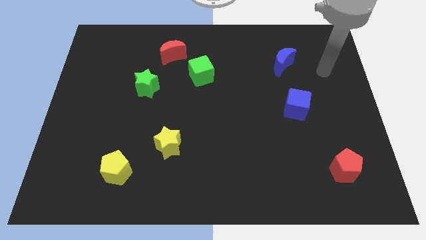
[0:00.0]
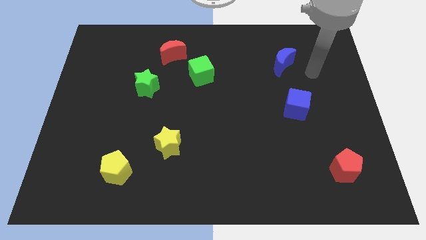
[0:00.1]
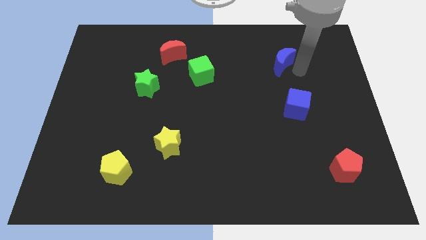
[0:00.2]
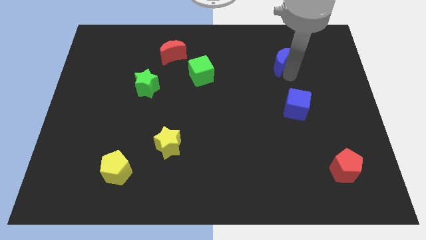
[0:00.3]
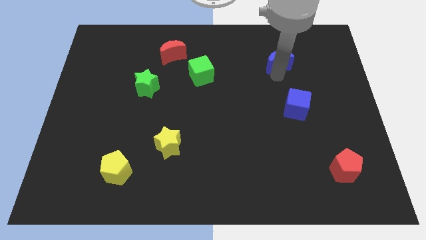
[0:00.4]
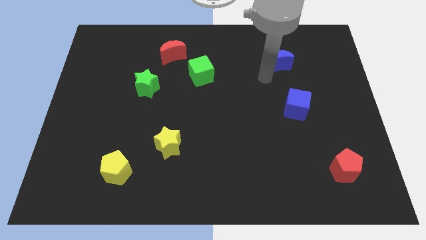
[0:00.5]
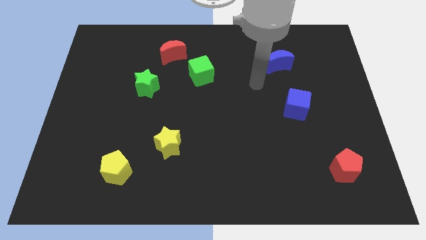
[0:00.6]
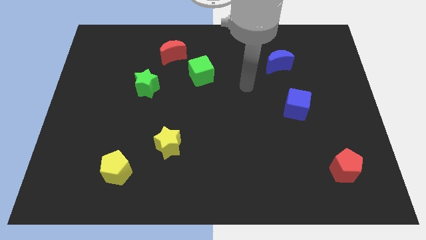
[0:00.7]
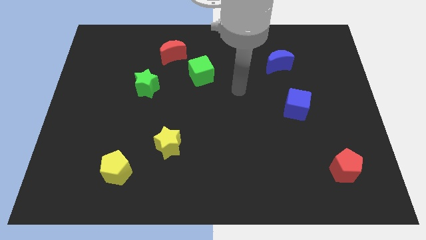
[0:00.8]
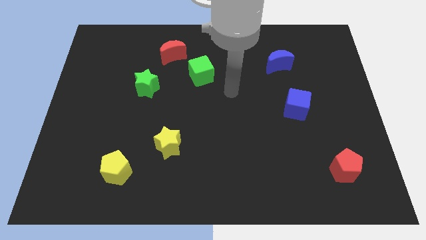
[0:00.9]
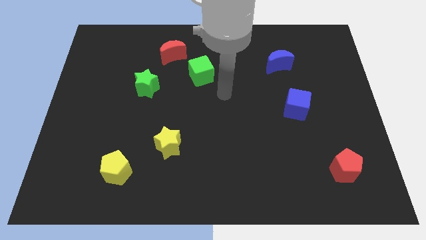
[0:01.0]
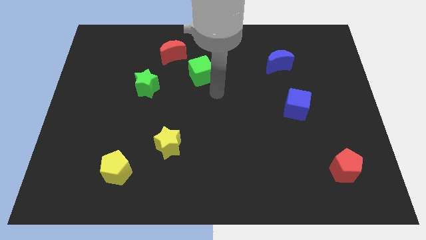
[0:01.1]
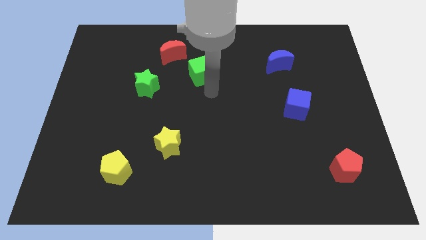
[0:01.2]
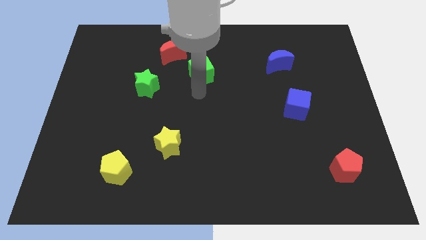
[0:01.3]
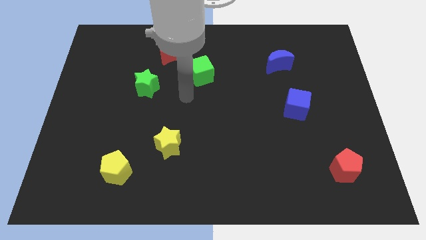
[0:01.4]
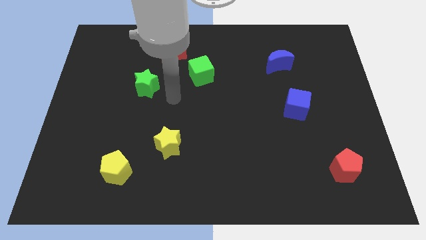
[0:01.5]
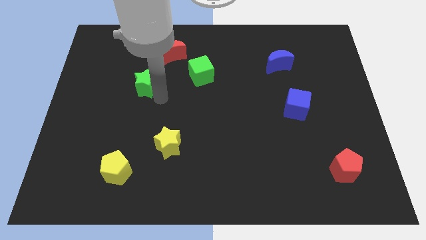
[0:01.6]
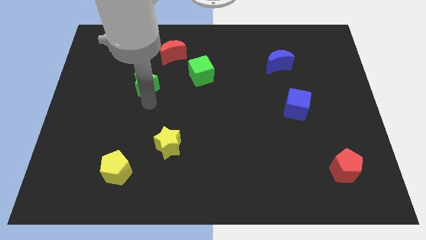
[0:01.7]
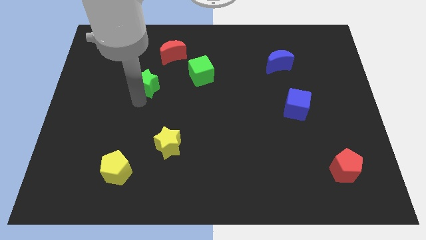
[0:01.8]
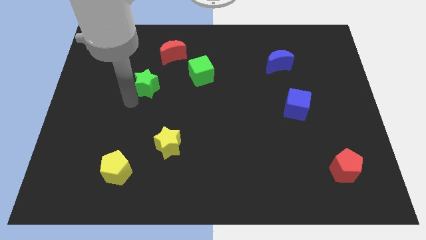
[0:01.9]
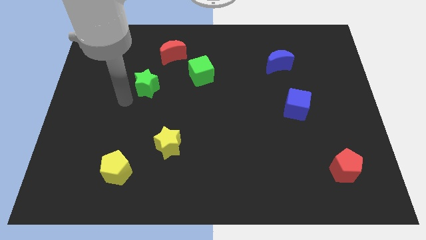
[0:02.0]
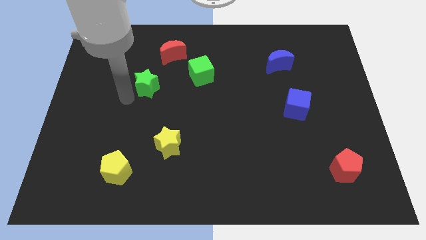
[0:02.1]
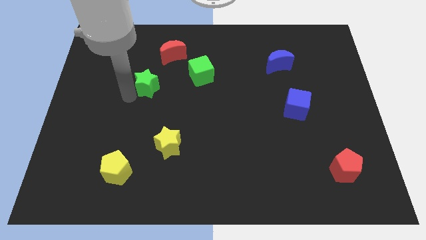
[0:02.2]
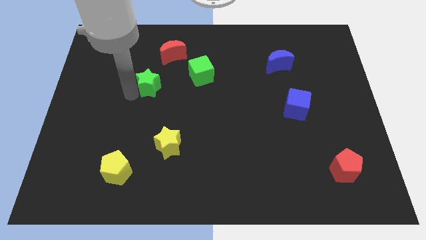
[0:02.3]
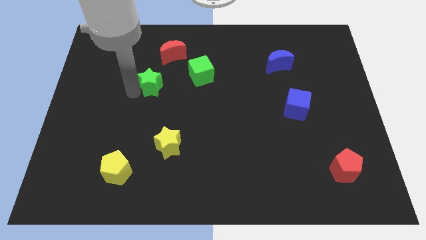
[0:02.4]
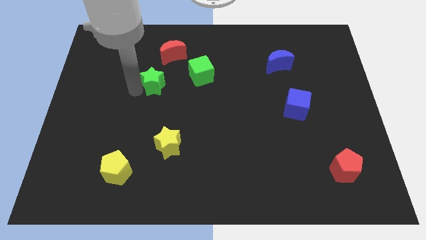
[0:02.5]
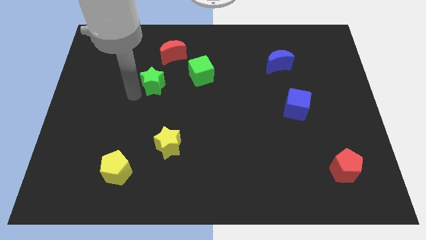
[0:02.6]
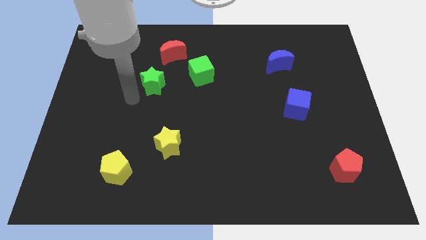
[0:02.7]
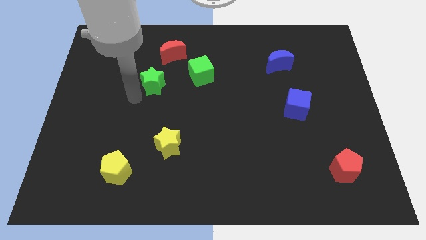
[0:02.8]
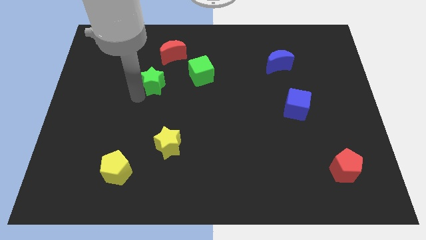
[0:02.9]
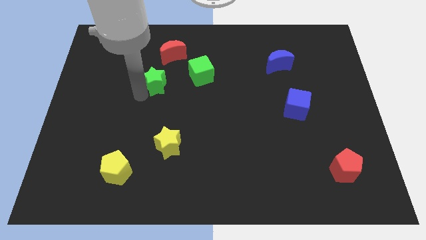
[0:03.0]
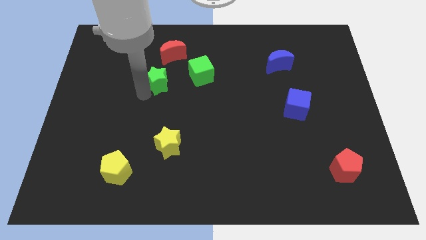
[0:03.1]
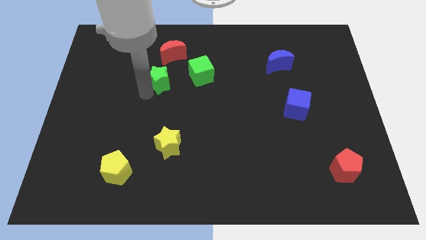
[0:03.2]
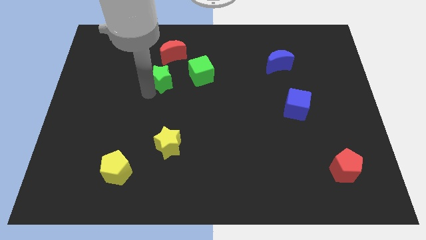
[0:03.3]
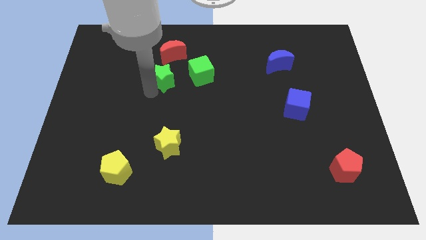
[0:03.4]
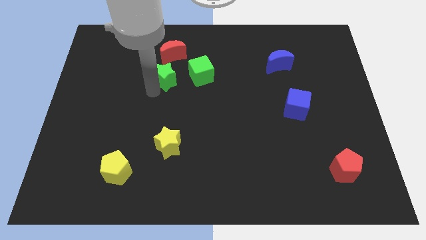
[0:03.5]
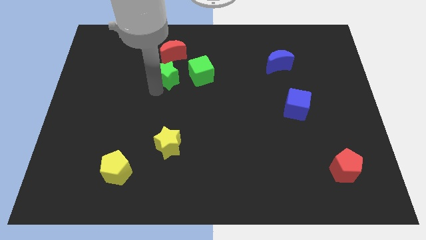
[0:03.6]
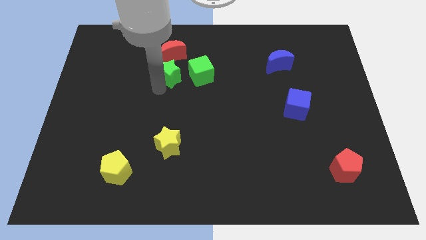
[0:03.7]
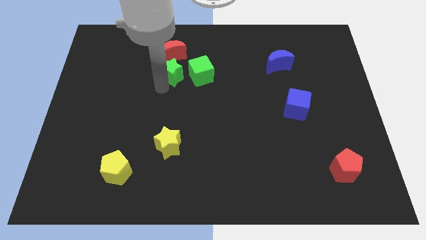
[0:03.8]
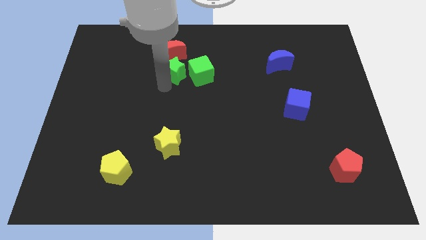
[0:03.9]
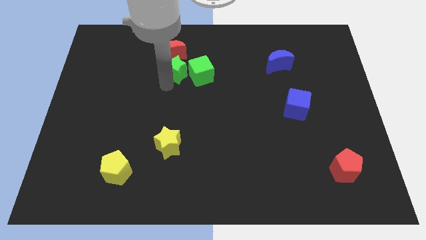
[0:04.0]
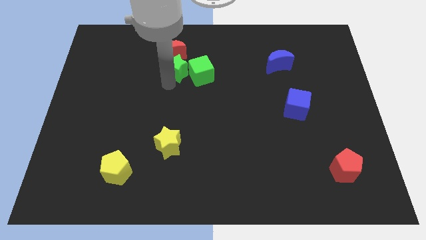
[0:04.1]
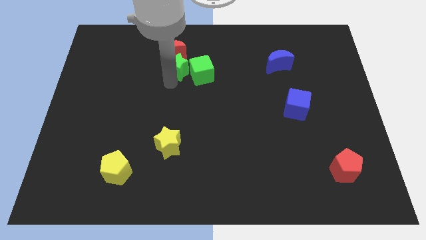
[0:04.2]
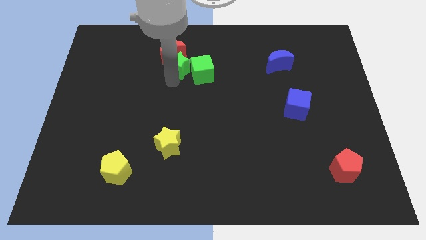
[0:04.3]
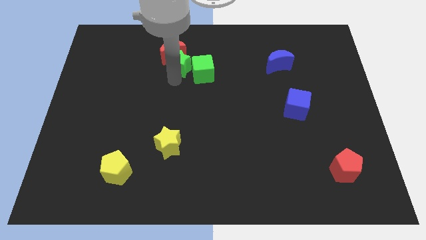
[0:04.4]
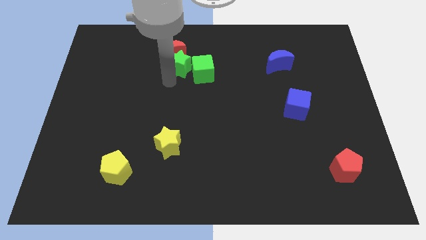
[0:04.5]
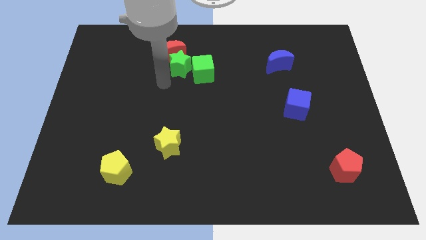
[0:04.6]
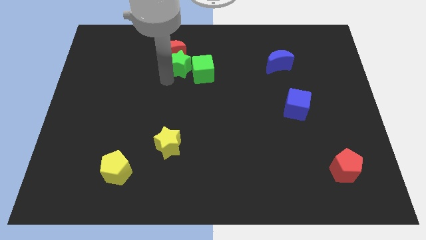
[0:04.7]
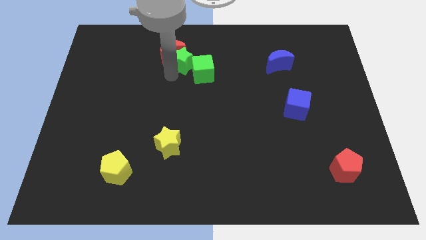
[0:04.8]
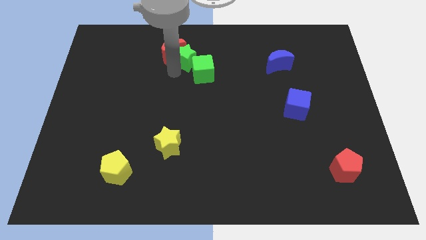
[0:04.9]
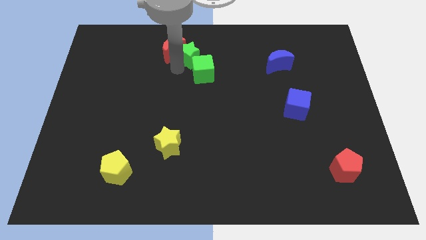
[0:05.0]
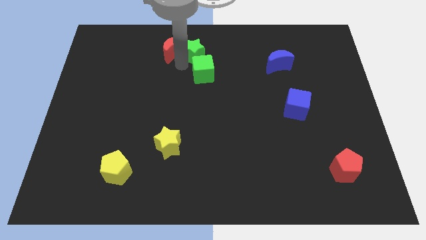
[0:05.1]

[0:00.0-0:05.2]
slide the green star to the top

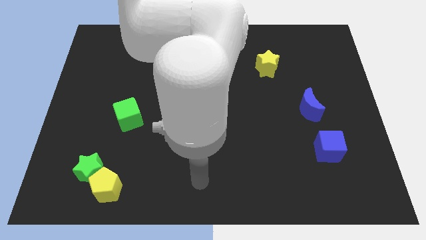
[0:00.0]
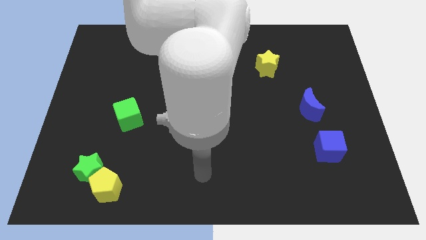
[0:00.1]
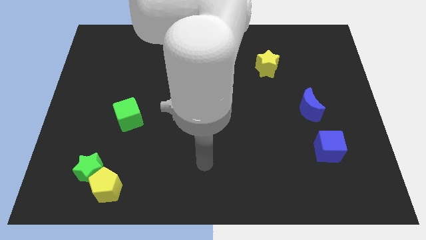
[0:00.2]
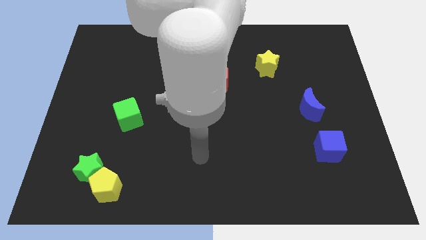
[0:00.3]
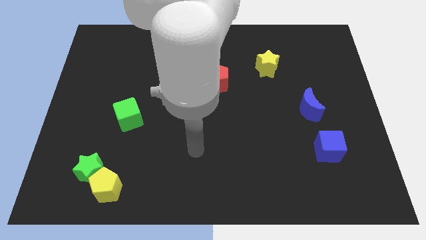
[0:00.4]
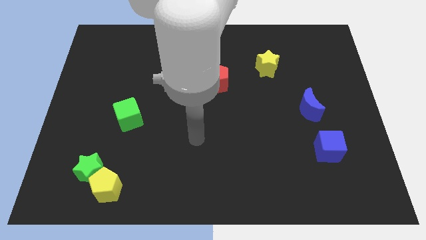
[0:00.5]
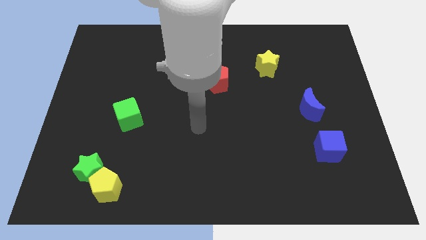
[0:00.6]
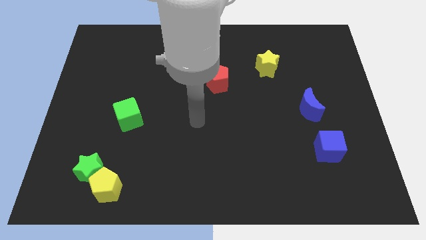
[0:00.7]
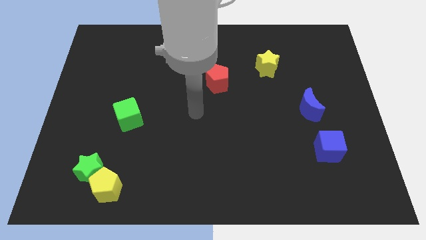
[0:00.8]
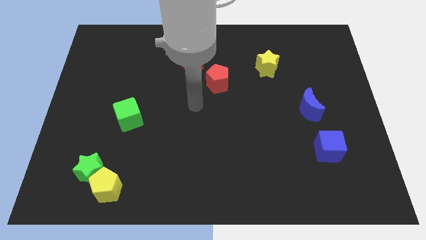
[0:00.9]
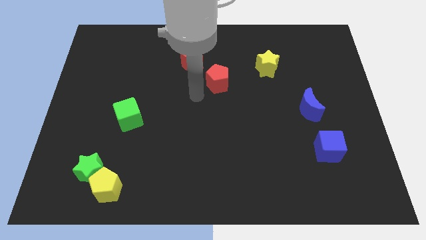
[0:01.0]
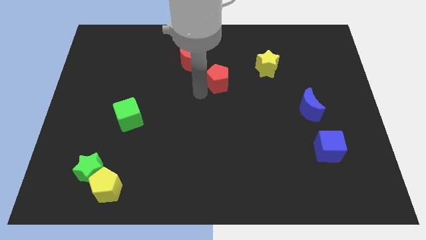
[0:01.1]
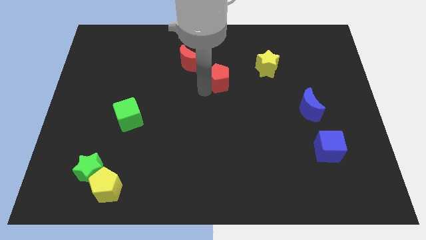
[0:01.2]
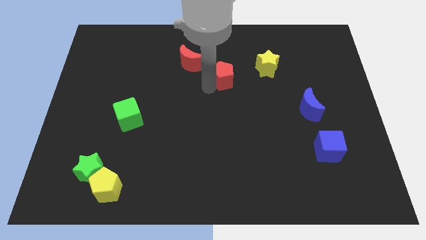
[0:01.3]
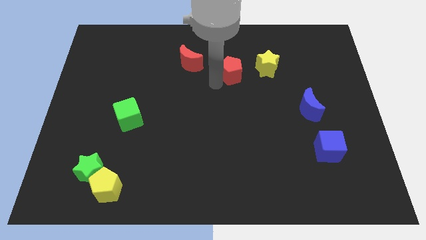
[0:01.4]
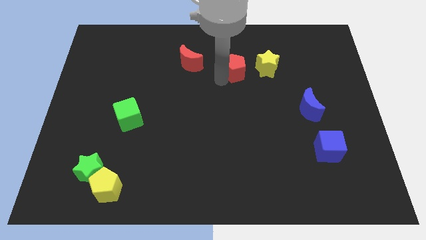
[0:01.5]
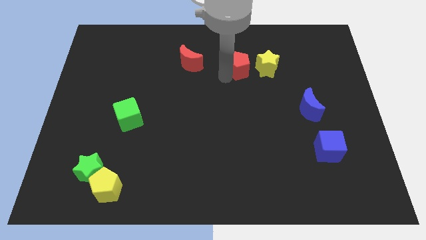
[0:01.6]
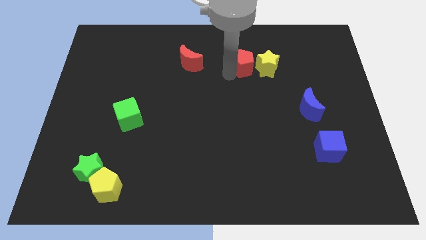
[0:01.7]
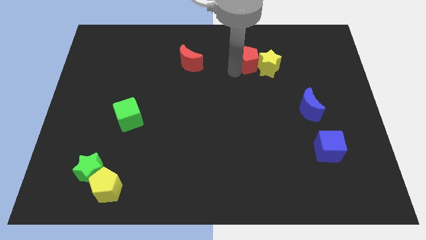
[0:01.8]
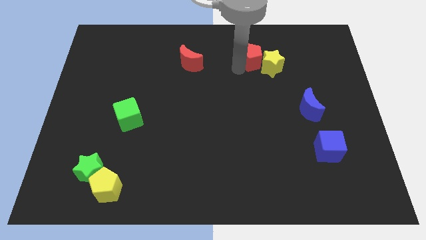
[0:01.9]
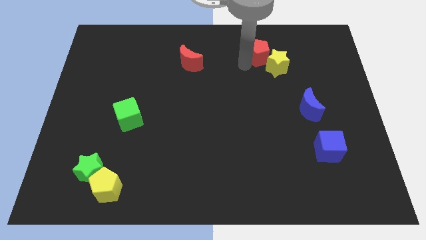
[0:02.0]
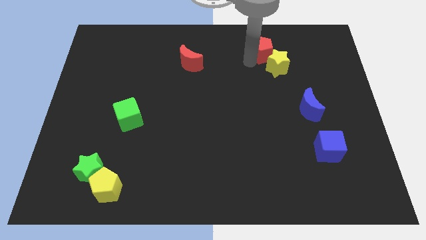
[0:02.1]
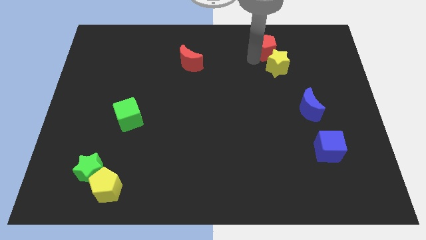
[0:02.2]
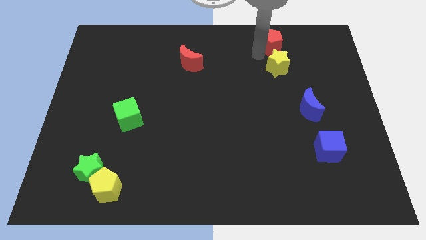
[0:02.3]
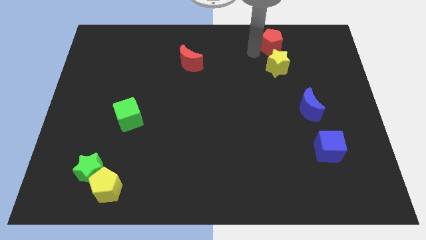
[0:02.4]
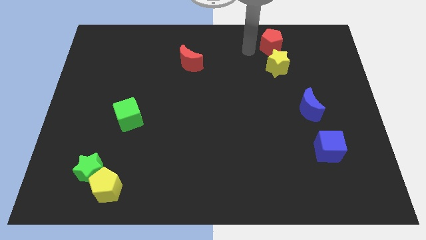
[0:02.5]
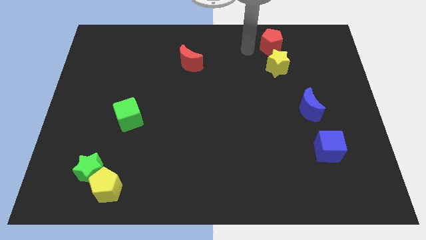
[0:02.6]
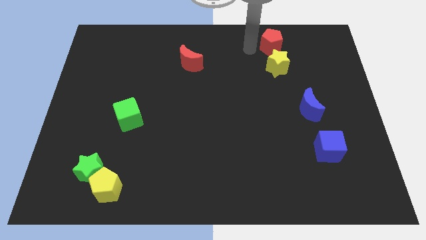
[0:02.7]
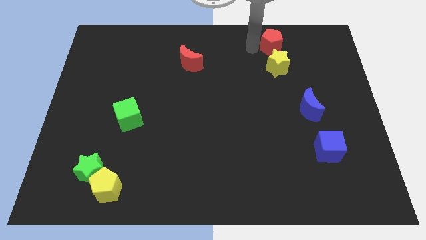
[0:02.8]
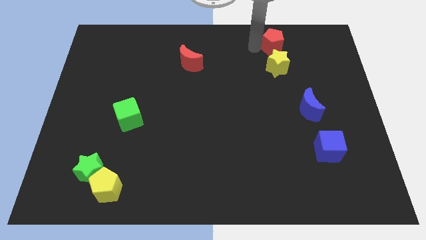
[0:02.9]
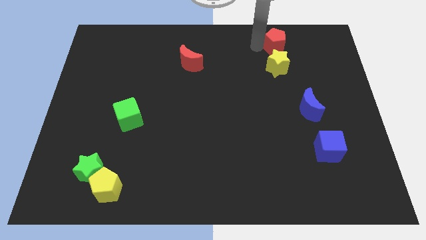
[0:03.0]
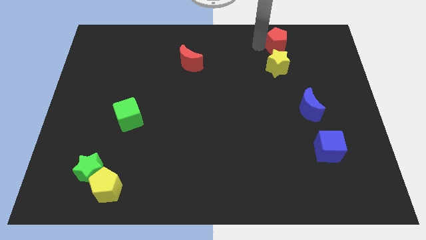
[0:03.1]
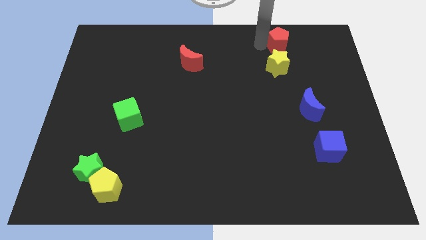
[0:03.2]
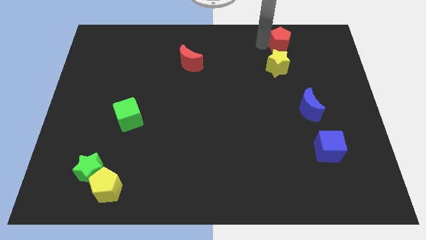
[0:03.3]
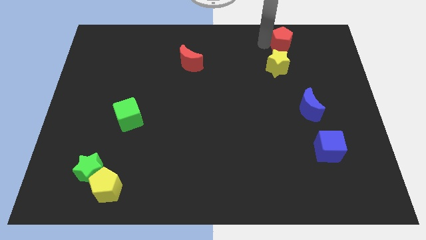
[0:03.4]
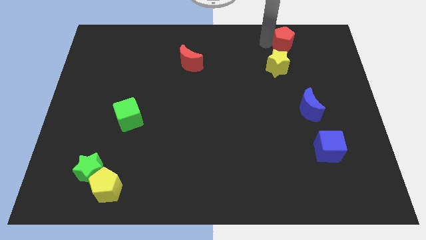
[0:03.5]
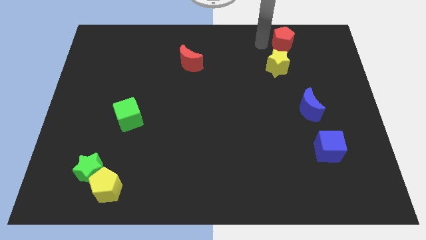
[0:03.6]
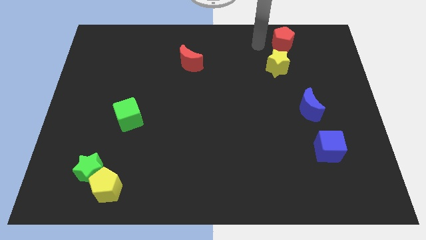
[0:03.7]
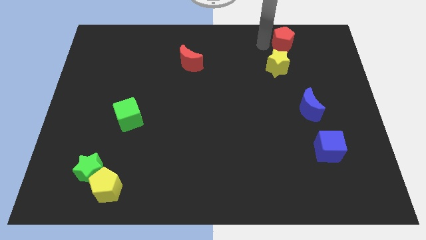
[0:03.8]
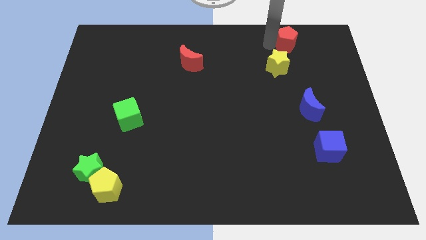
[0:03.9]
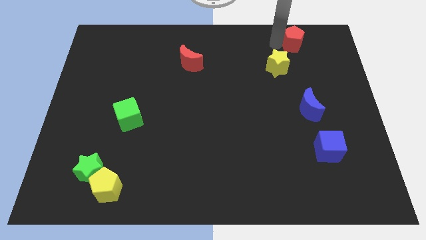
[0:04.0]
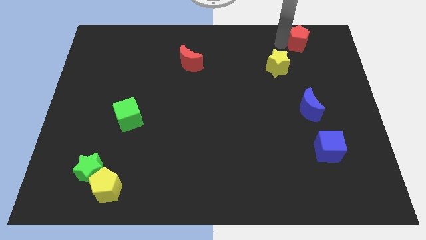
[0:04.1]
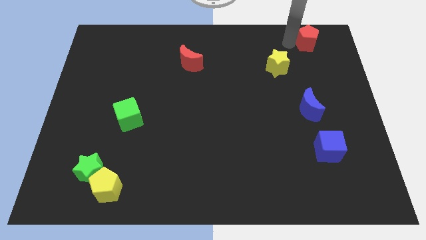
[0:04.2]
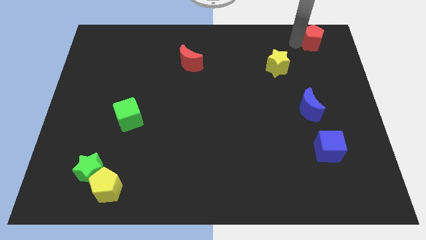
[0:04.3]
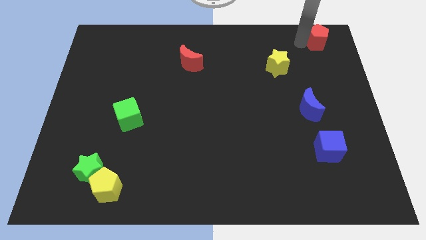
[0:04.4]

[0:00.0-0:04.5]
put the red pentagon to the top right corner
